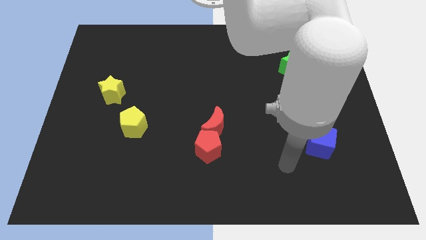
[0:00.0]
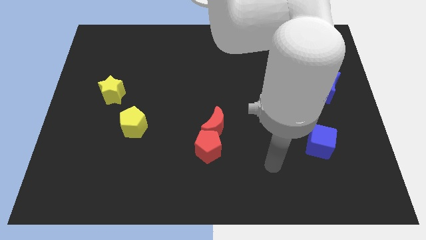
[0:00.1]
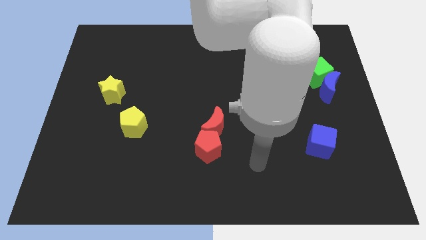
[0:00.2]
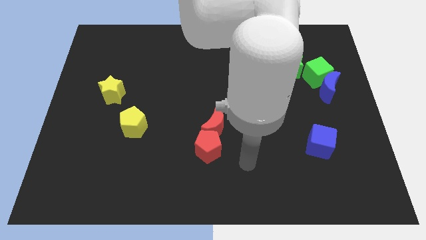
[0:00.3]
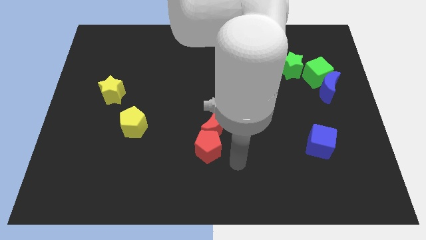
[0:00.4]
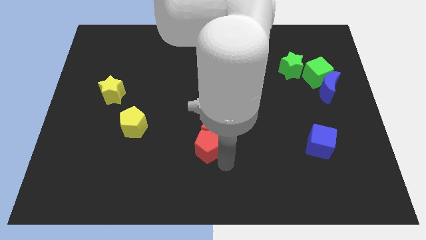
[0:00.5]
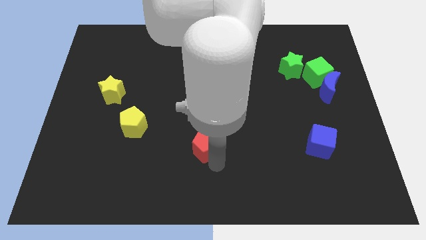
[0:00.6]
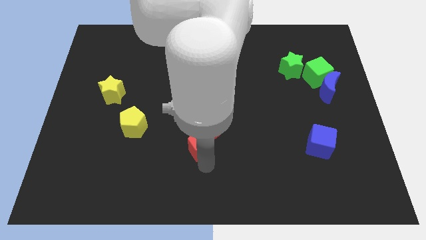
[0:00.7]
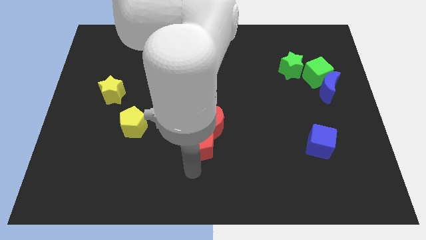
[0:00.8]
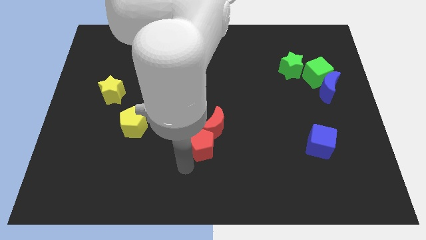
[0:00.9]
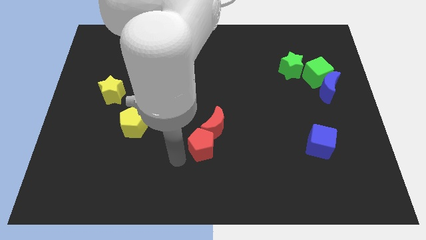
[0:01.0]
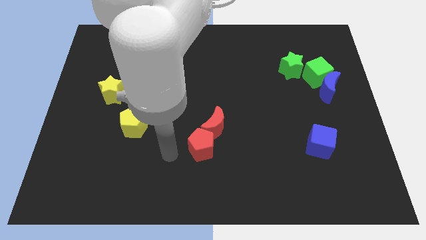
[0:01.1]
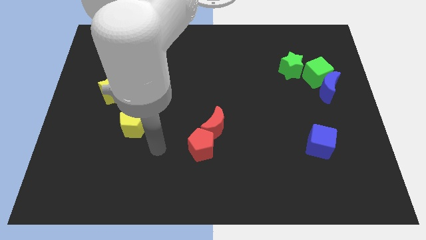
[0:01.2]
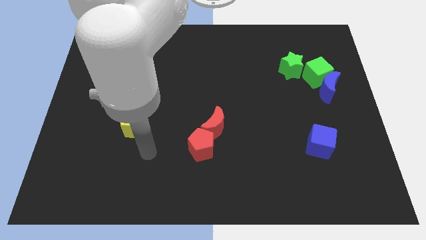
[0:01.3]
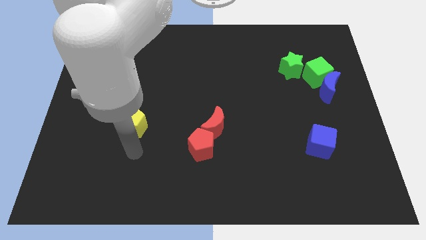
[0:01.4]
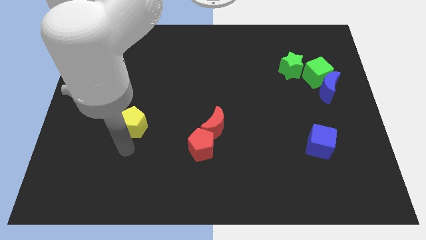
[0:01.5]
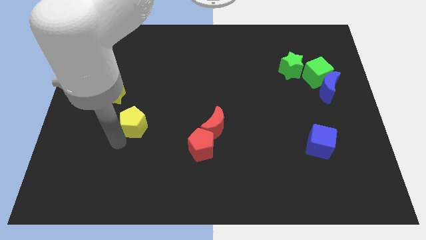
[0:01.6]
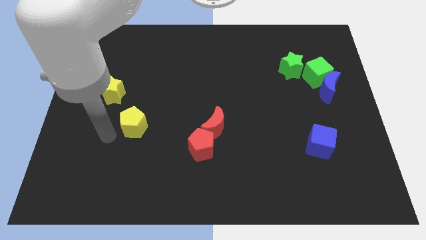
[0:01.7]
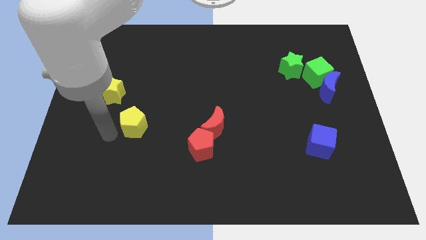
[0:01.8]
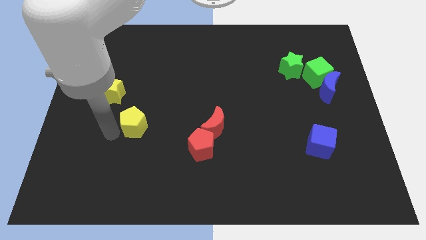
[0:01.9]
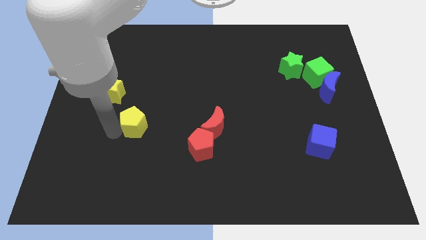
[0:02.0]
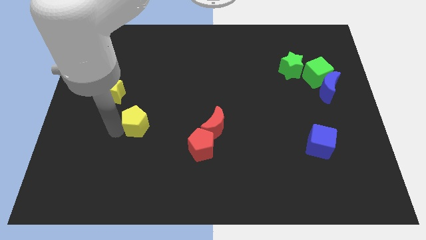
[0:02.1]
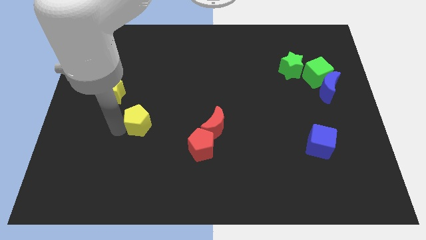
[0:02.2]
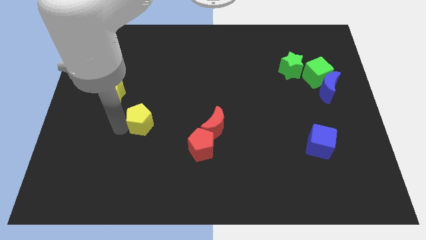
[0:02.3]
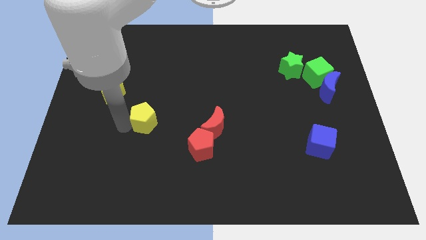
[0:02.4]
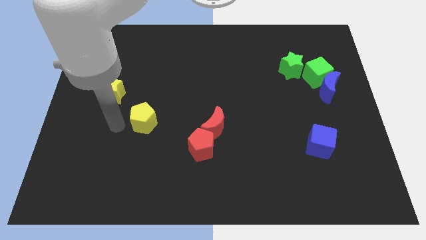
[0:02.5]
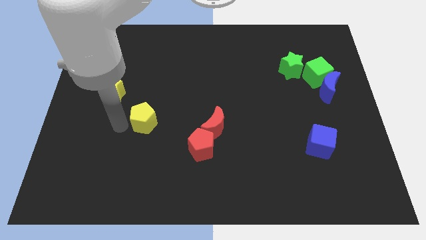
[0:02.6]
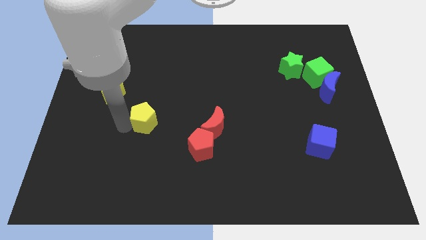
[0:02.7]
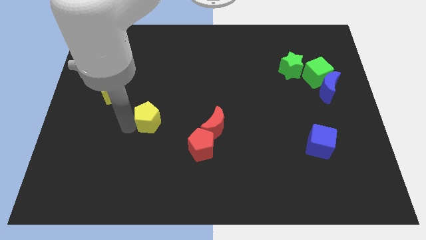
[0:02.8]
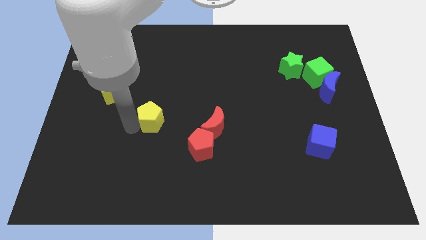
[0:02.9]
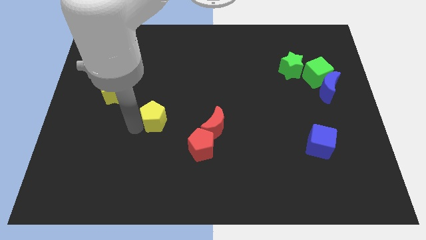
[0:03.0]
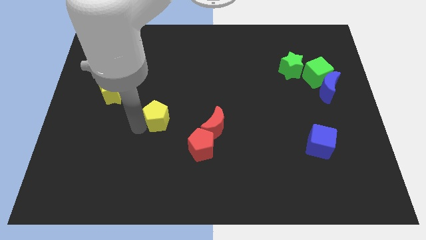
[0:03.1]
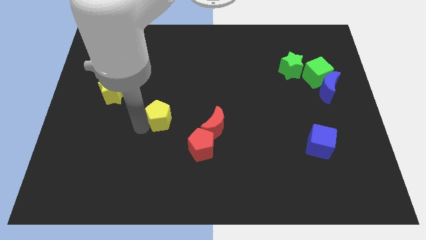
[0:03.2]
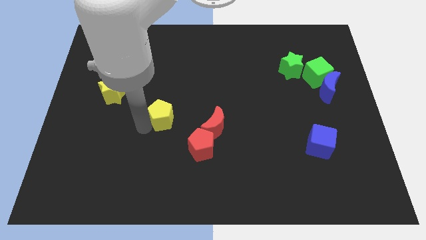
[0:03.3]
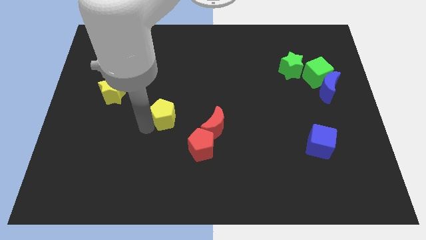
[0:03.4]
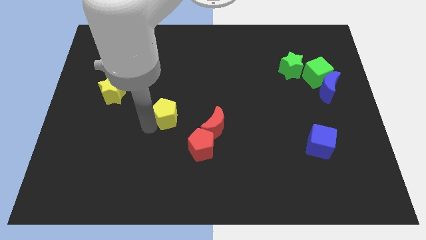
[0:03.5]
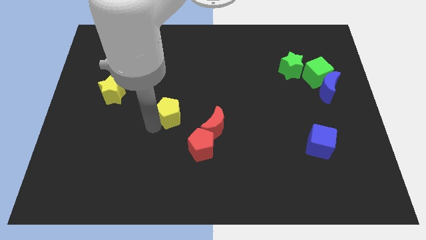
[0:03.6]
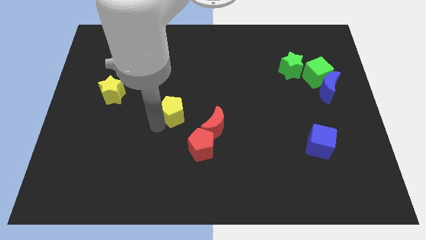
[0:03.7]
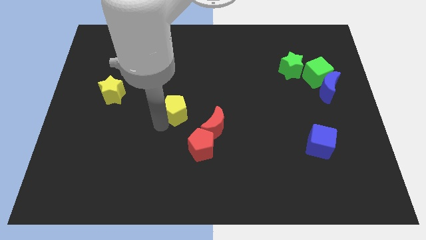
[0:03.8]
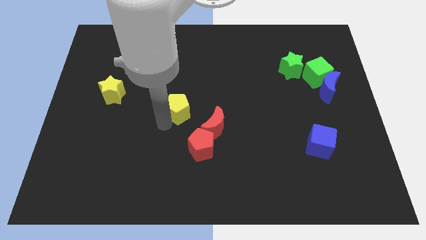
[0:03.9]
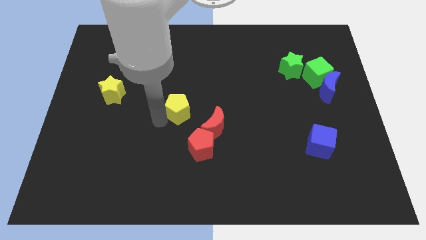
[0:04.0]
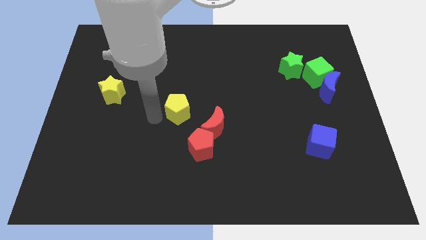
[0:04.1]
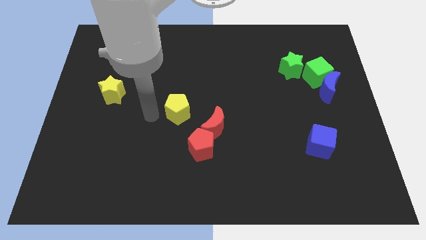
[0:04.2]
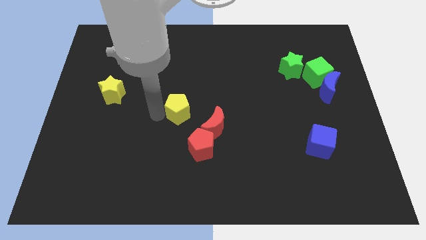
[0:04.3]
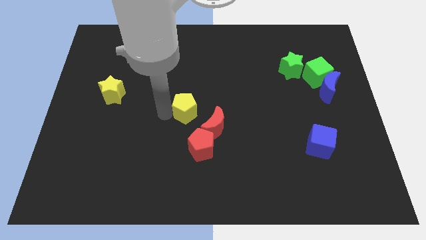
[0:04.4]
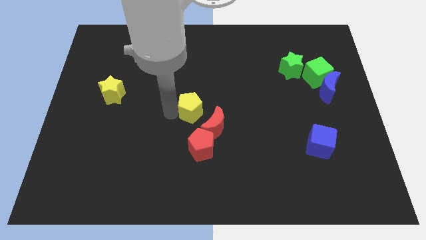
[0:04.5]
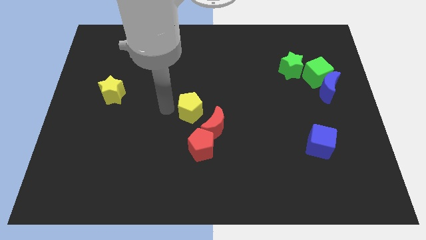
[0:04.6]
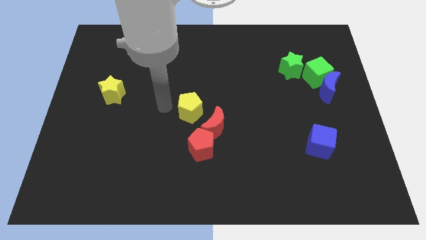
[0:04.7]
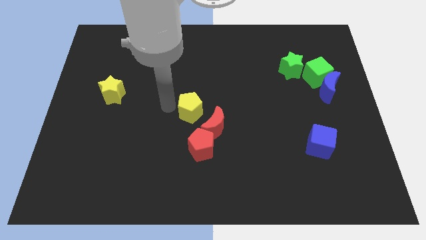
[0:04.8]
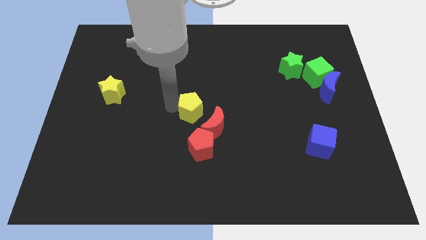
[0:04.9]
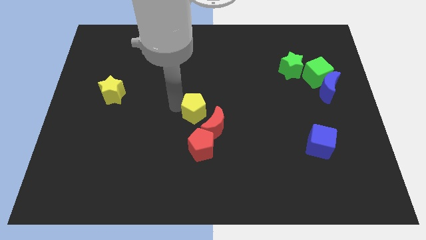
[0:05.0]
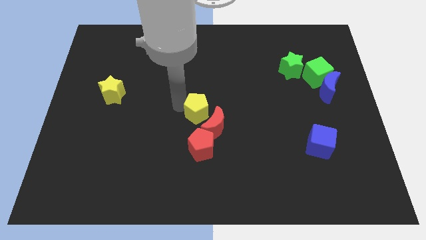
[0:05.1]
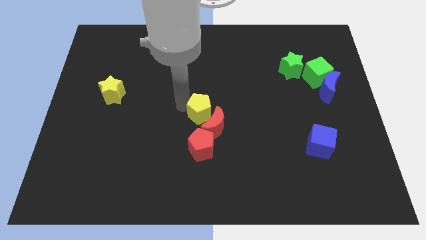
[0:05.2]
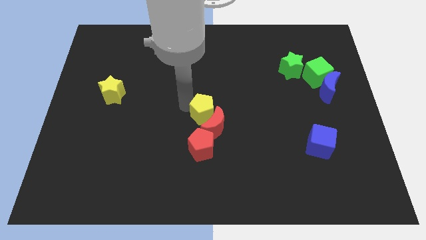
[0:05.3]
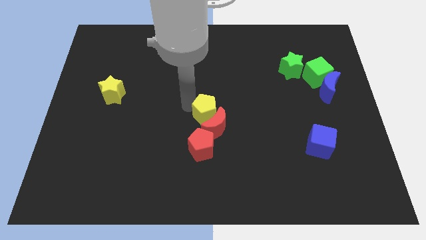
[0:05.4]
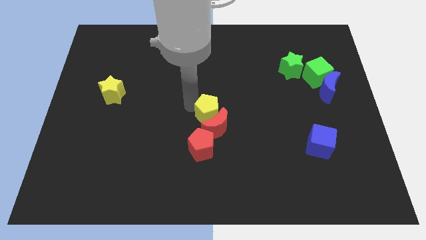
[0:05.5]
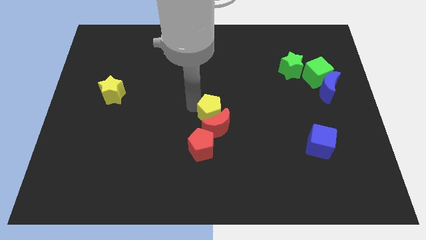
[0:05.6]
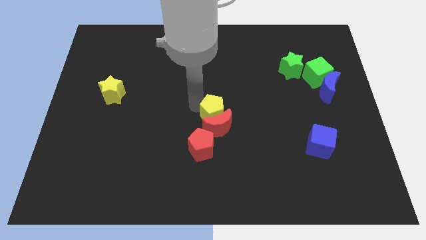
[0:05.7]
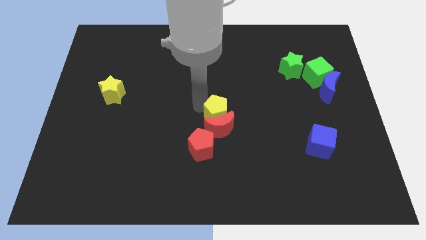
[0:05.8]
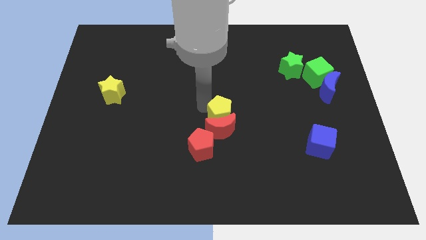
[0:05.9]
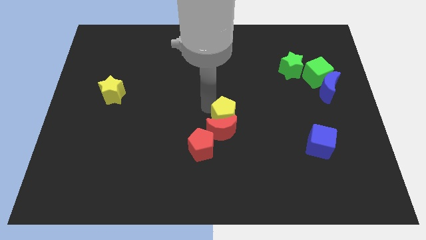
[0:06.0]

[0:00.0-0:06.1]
slide the yellow pentagon right

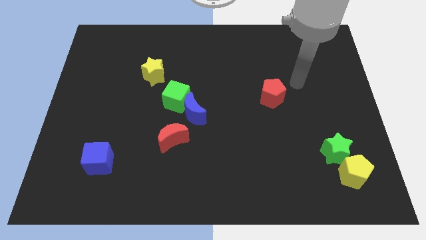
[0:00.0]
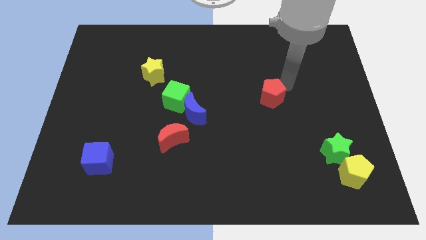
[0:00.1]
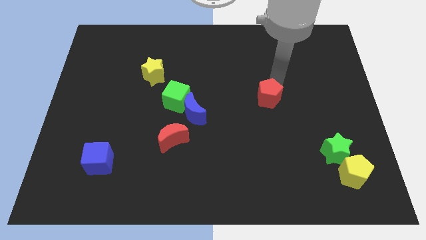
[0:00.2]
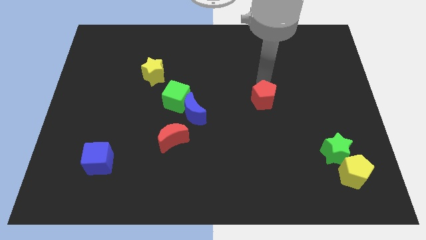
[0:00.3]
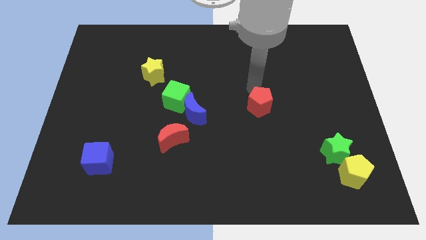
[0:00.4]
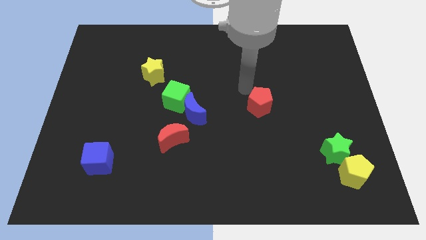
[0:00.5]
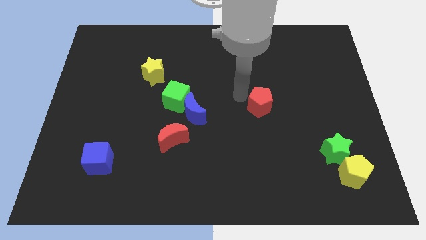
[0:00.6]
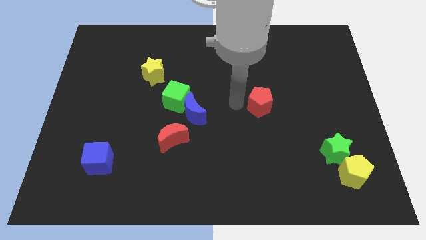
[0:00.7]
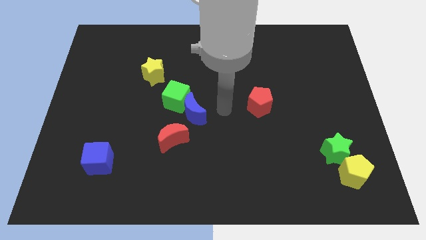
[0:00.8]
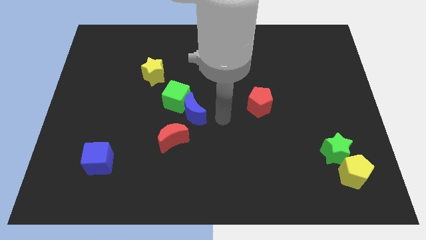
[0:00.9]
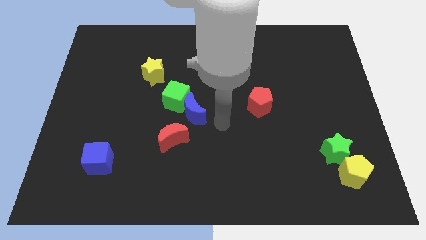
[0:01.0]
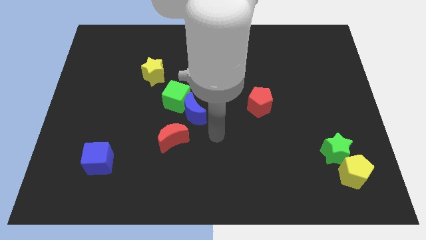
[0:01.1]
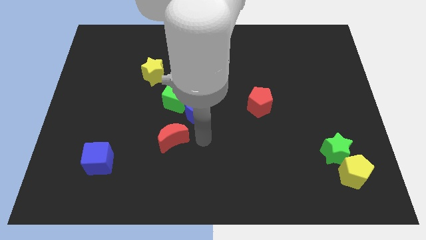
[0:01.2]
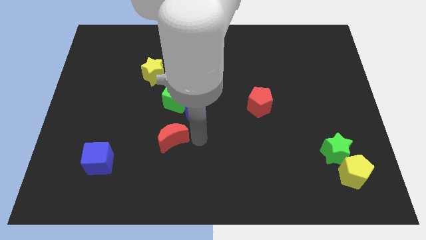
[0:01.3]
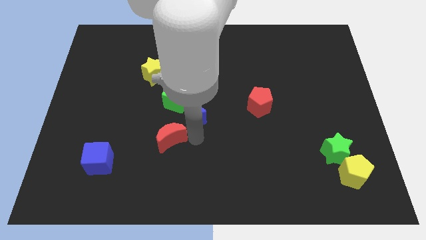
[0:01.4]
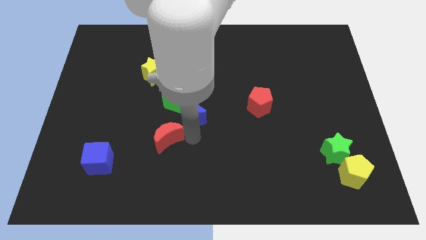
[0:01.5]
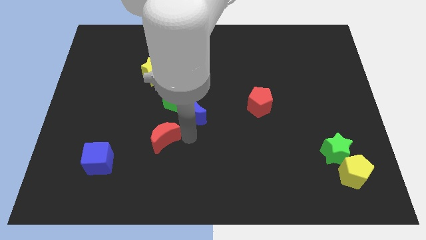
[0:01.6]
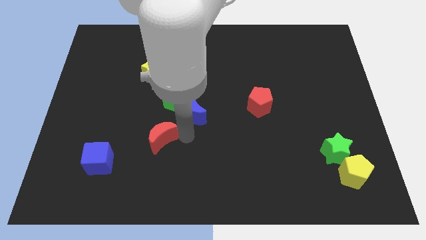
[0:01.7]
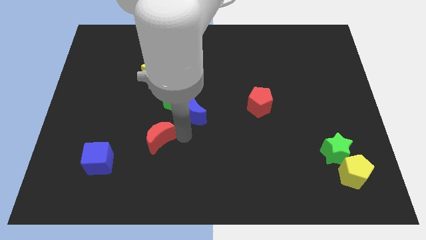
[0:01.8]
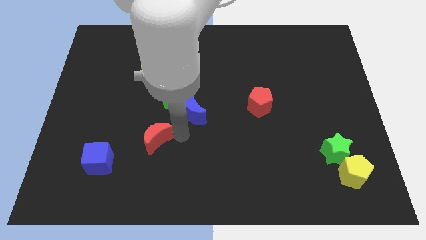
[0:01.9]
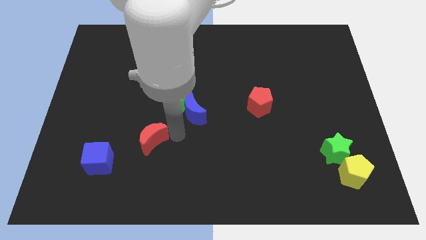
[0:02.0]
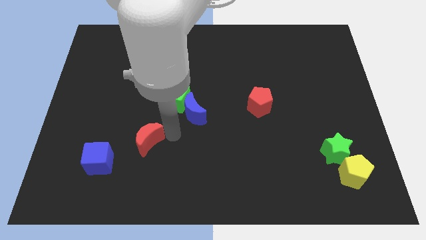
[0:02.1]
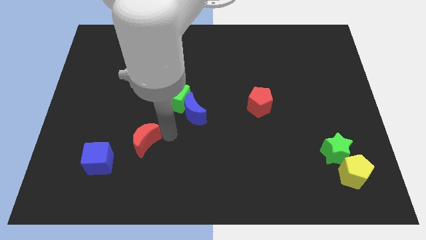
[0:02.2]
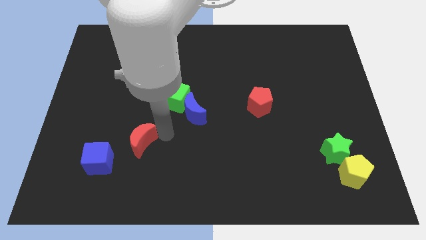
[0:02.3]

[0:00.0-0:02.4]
move the red moon left slightly

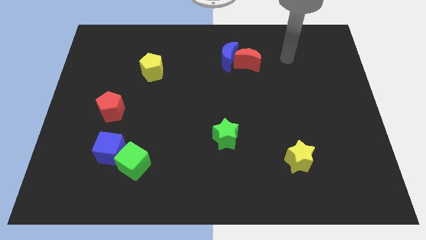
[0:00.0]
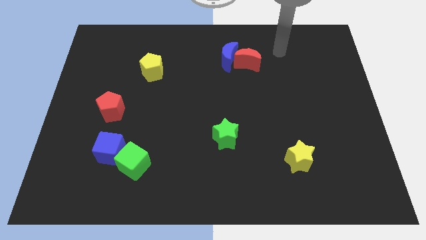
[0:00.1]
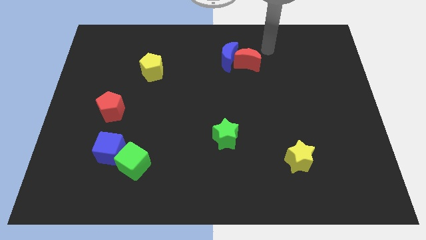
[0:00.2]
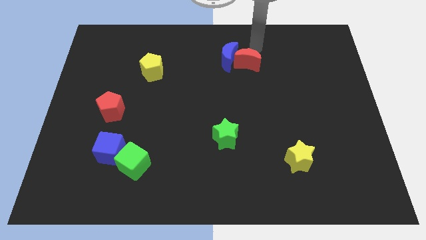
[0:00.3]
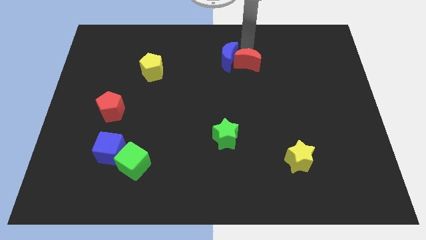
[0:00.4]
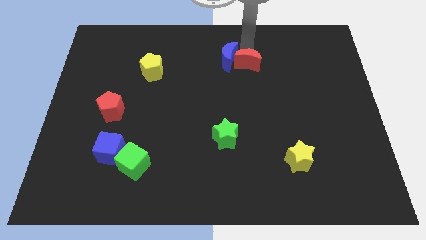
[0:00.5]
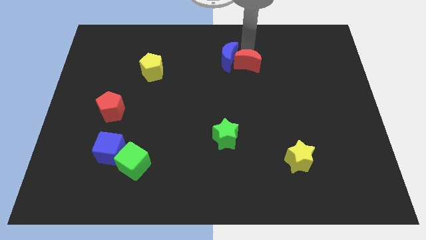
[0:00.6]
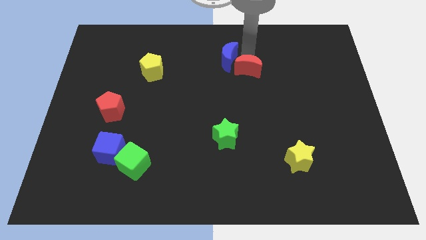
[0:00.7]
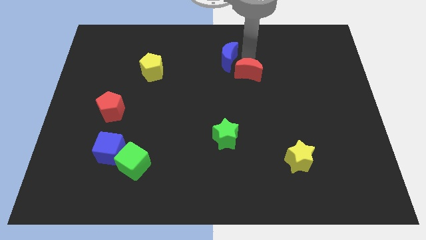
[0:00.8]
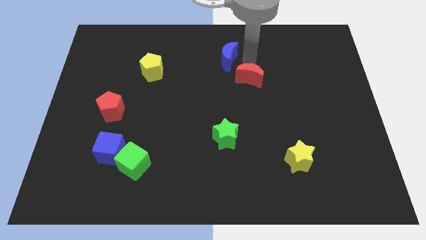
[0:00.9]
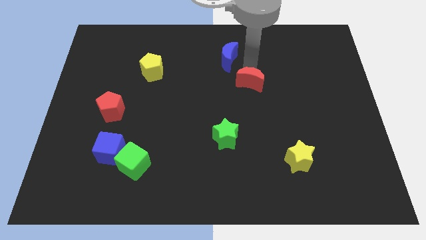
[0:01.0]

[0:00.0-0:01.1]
slightly move the red moon down
